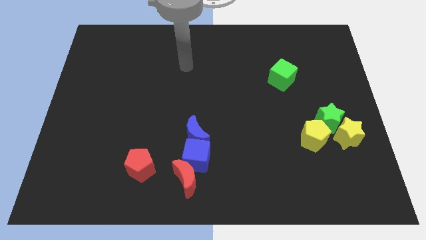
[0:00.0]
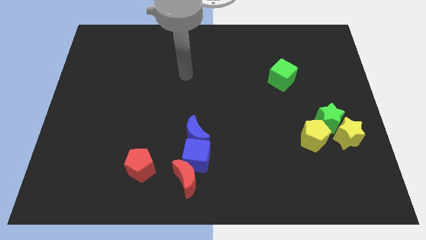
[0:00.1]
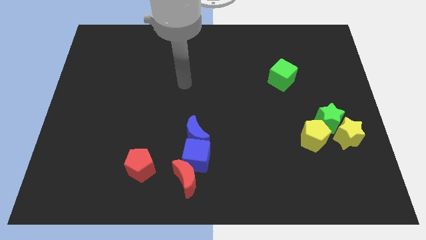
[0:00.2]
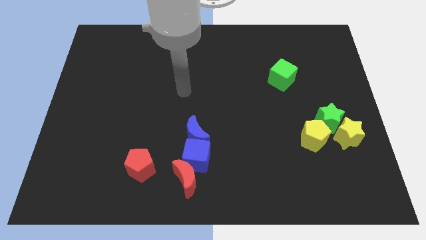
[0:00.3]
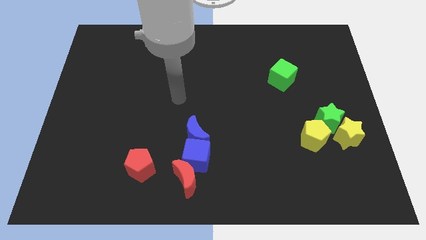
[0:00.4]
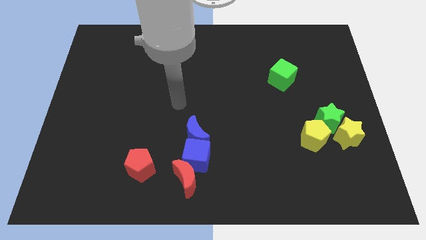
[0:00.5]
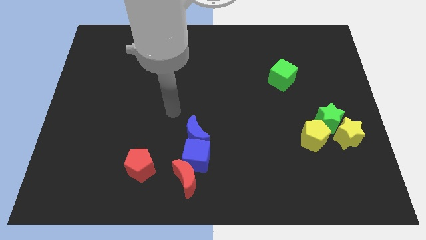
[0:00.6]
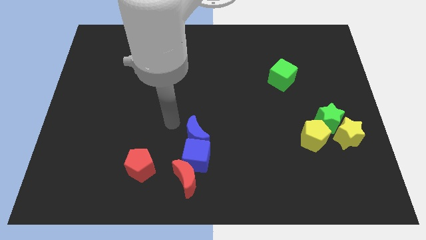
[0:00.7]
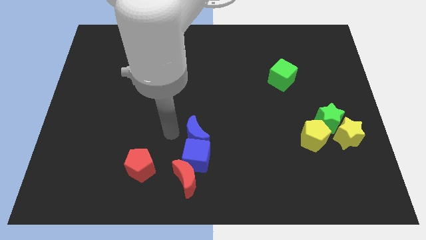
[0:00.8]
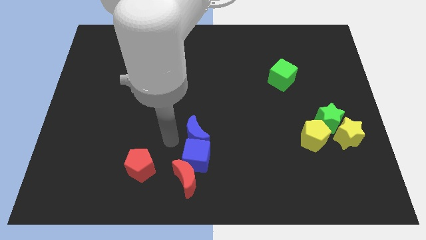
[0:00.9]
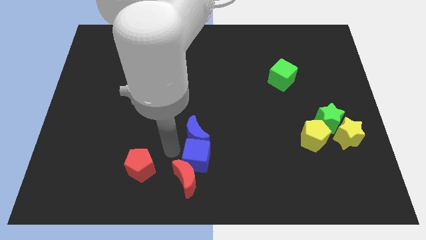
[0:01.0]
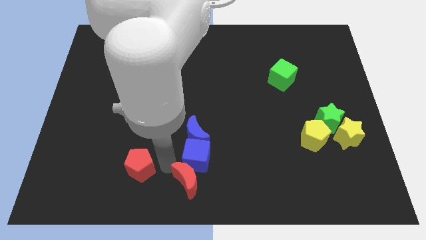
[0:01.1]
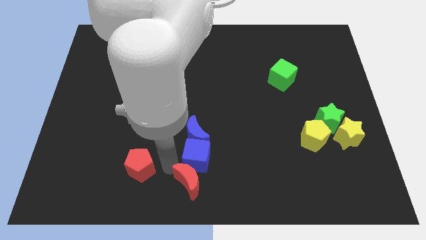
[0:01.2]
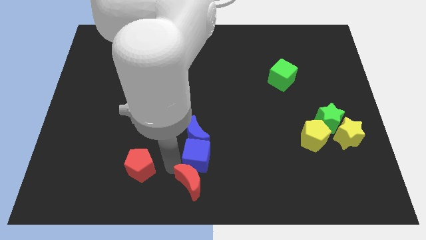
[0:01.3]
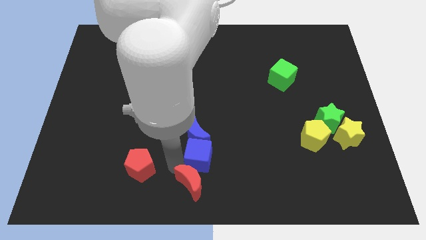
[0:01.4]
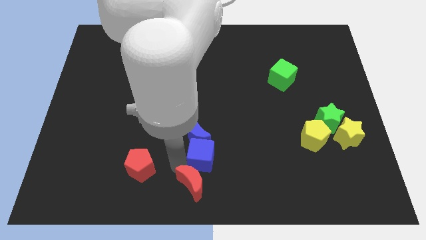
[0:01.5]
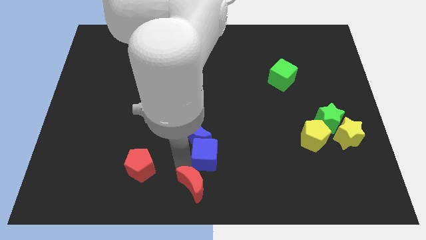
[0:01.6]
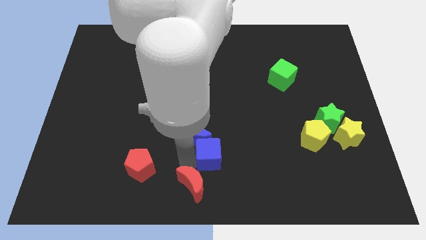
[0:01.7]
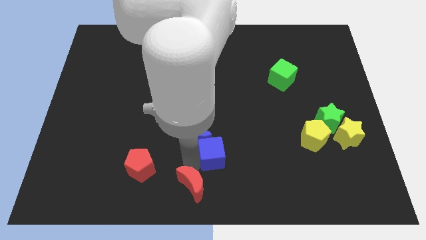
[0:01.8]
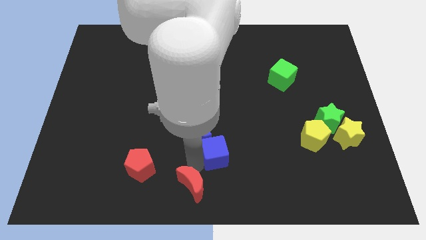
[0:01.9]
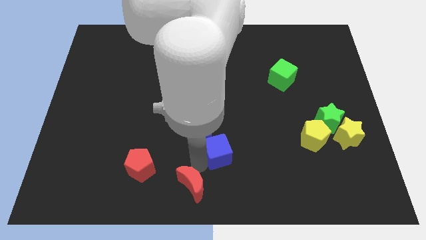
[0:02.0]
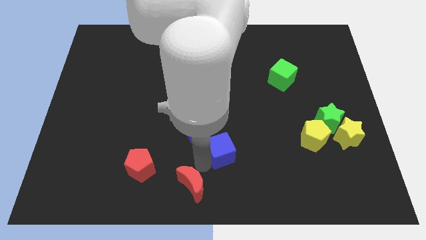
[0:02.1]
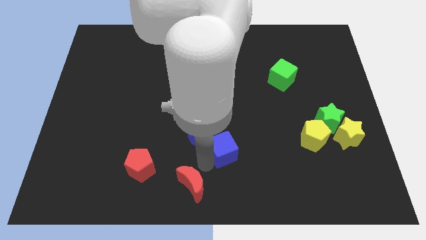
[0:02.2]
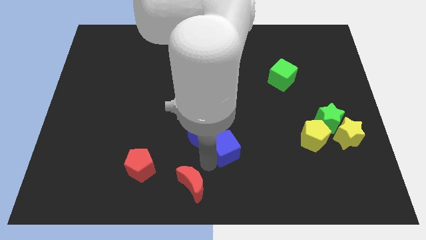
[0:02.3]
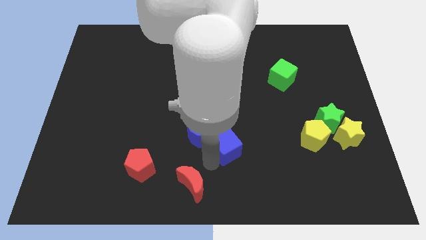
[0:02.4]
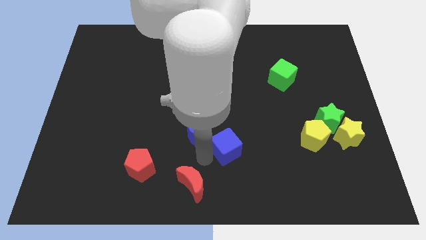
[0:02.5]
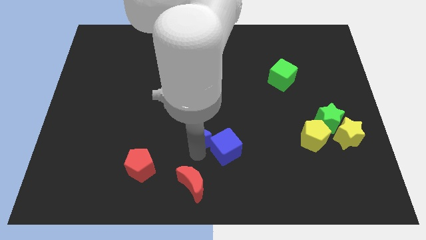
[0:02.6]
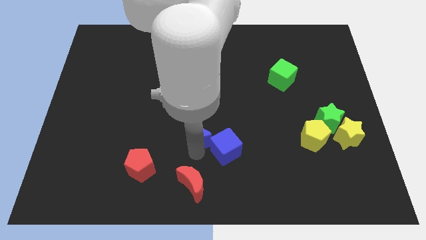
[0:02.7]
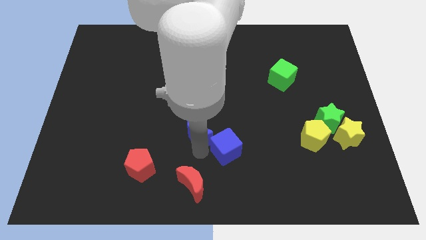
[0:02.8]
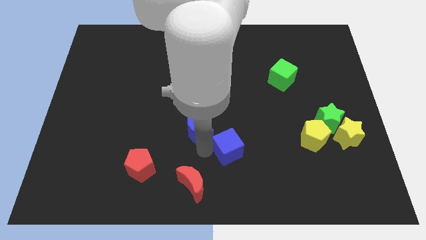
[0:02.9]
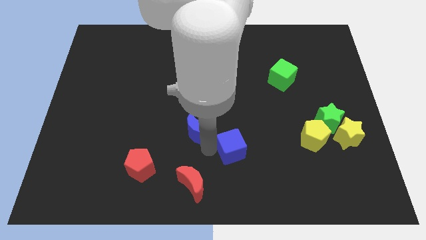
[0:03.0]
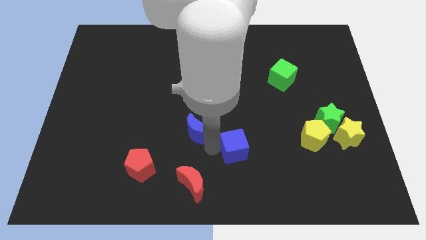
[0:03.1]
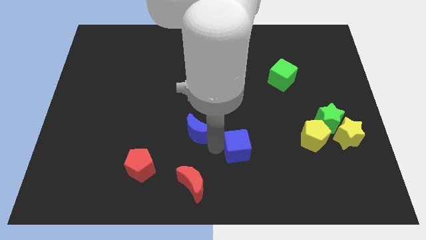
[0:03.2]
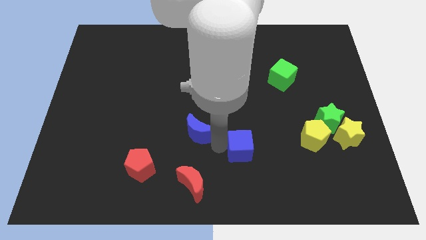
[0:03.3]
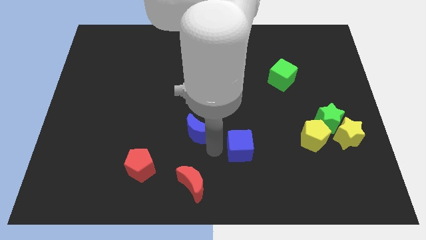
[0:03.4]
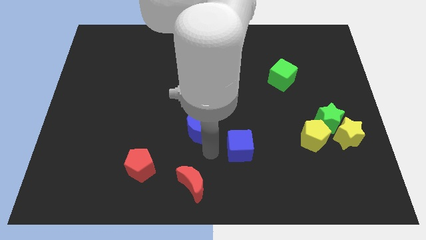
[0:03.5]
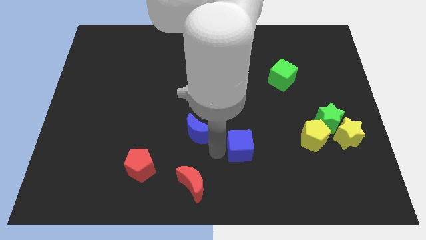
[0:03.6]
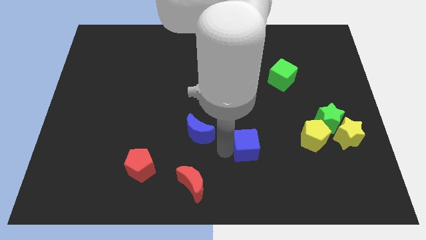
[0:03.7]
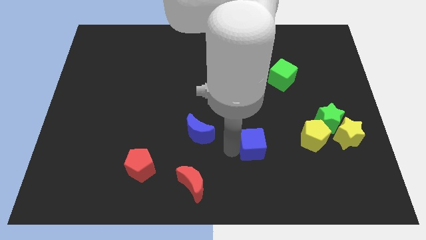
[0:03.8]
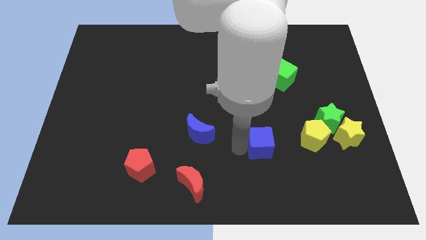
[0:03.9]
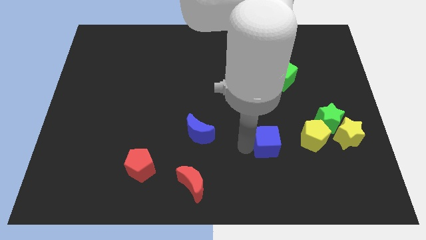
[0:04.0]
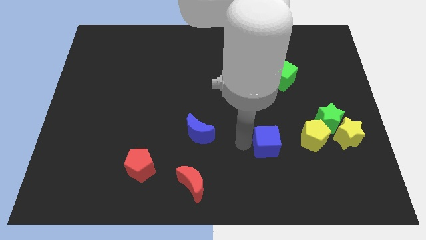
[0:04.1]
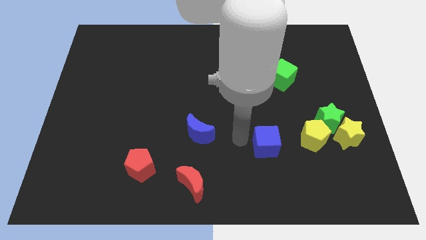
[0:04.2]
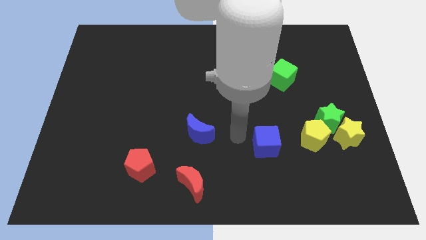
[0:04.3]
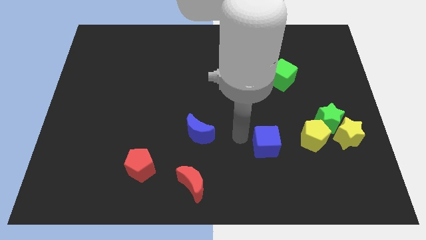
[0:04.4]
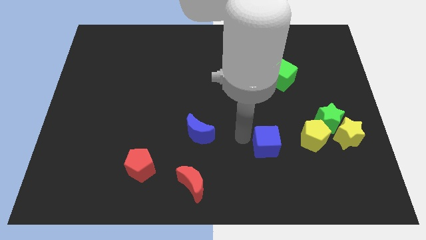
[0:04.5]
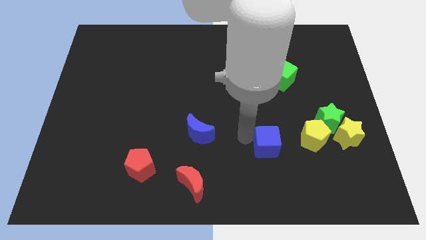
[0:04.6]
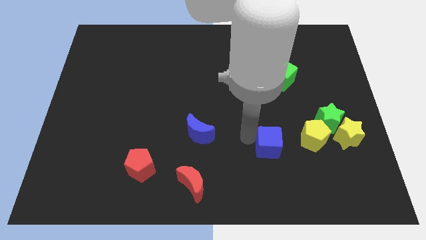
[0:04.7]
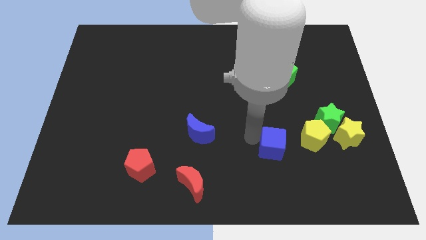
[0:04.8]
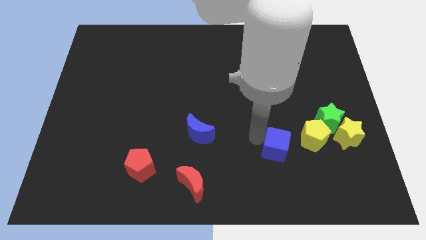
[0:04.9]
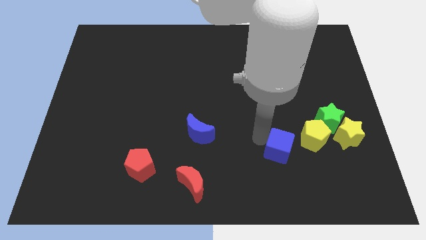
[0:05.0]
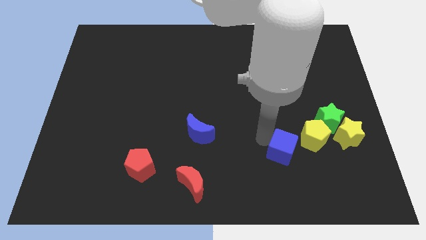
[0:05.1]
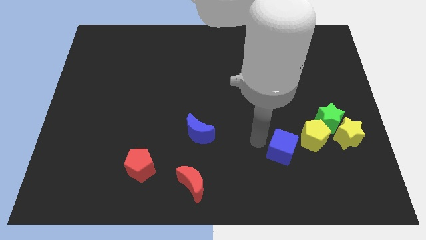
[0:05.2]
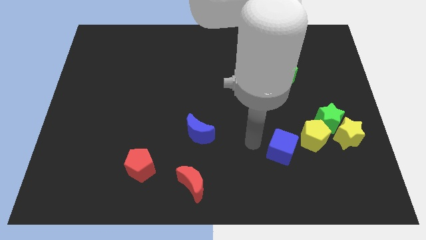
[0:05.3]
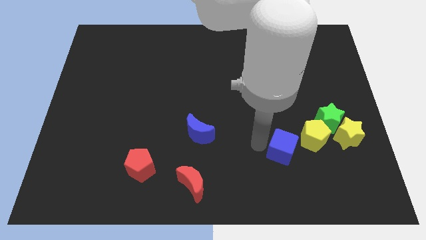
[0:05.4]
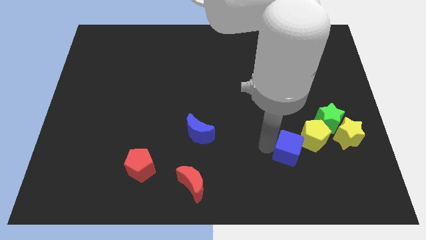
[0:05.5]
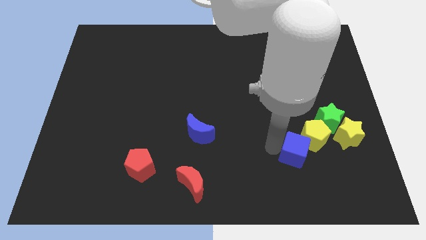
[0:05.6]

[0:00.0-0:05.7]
push the blue cube to the right

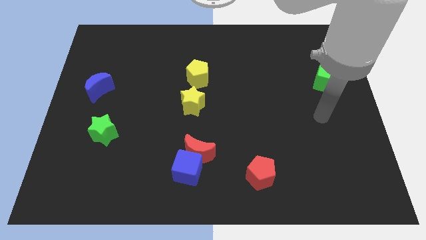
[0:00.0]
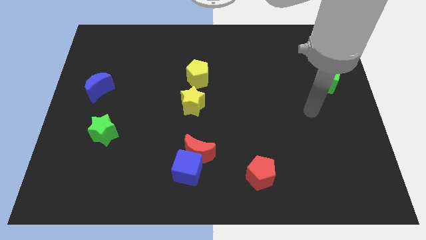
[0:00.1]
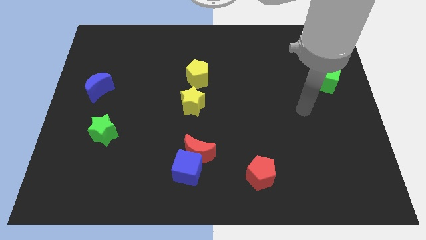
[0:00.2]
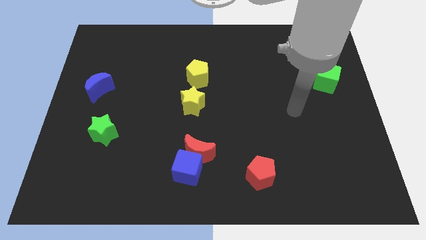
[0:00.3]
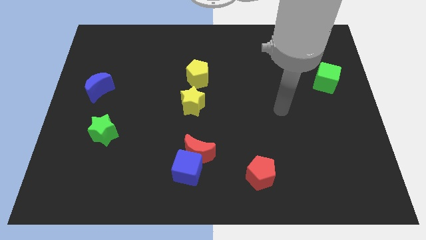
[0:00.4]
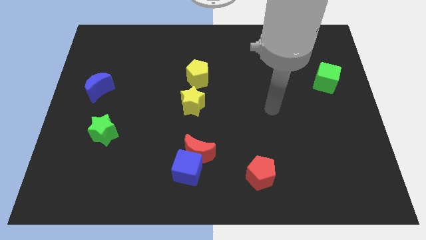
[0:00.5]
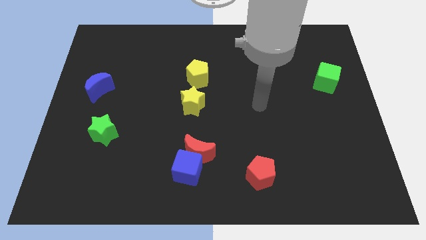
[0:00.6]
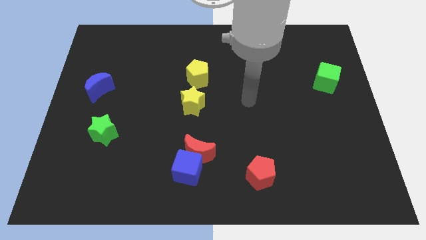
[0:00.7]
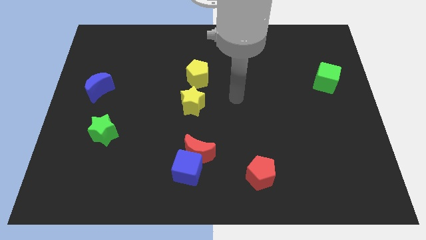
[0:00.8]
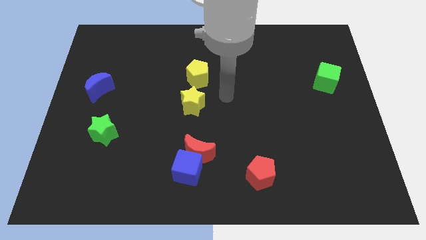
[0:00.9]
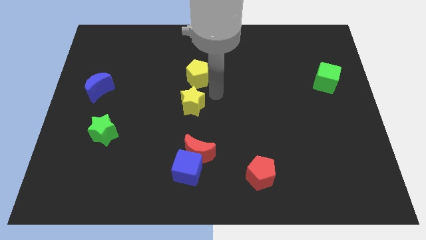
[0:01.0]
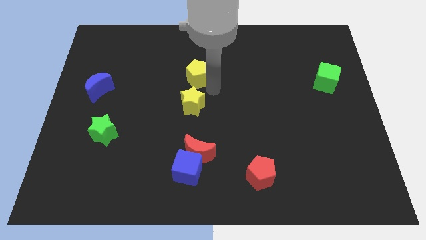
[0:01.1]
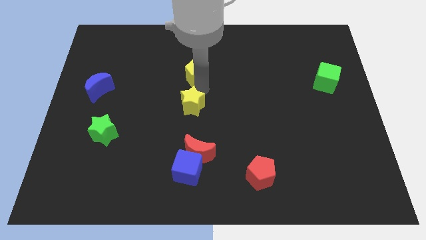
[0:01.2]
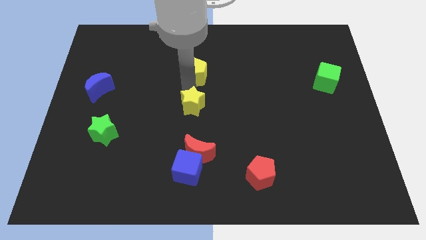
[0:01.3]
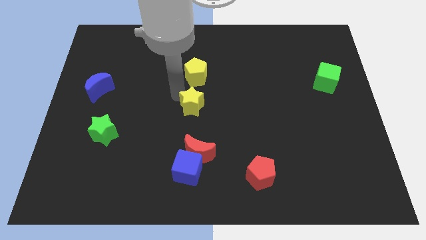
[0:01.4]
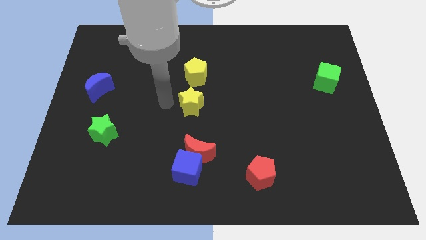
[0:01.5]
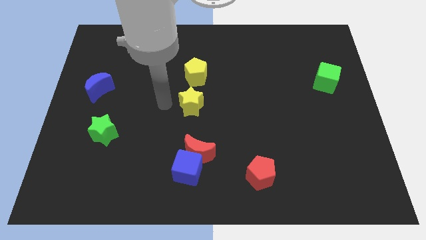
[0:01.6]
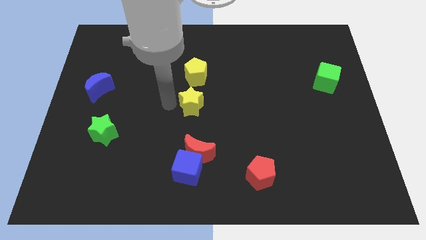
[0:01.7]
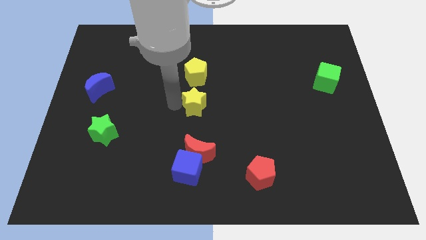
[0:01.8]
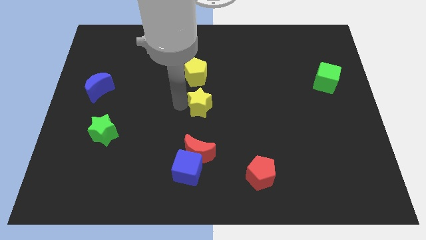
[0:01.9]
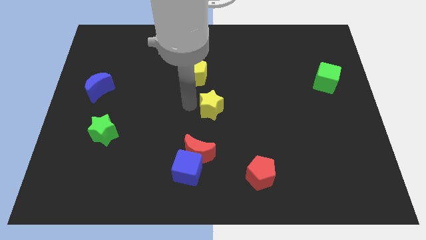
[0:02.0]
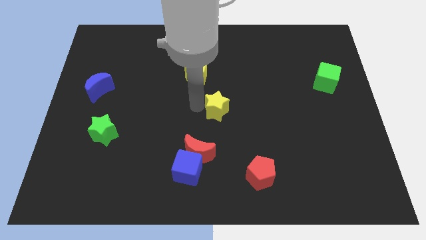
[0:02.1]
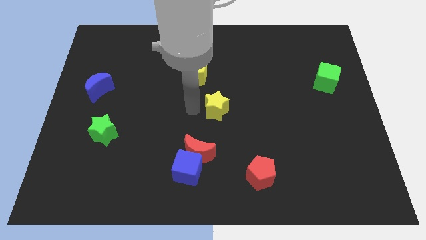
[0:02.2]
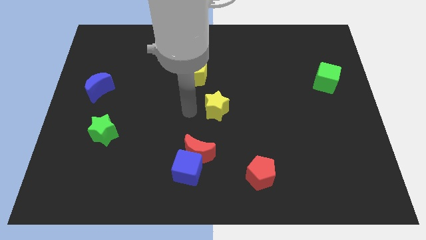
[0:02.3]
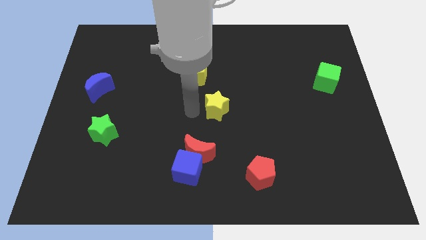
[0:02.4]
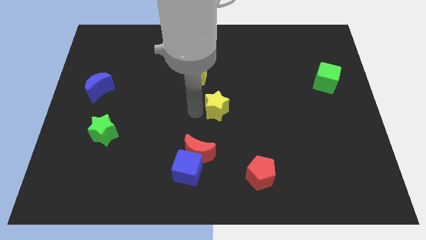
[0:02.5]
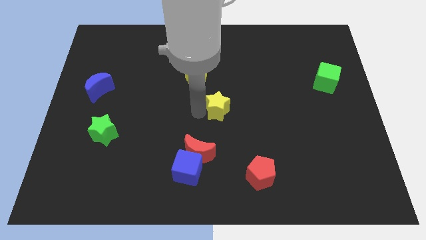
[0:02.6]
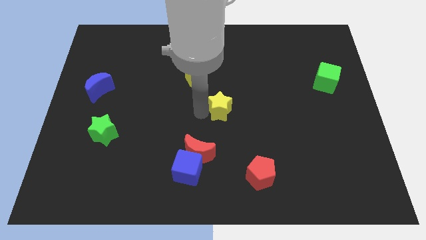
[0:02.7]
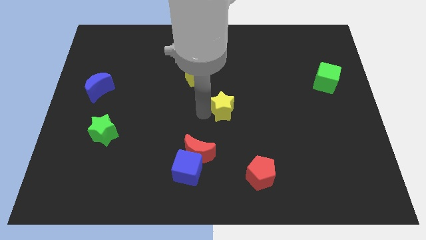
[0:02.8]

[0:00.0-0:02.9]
push the yellow star a little bit right
